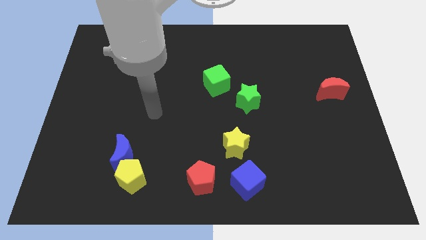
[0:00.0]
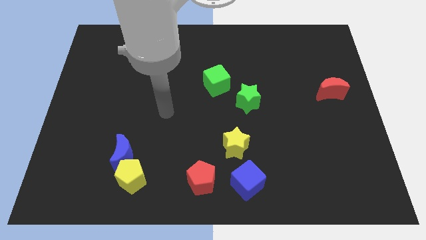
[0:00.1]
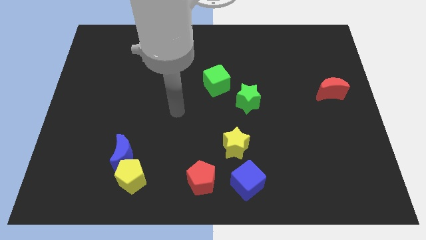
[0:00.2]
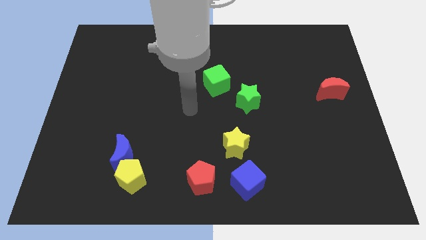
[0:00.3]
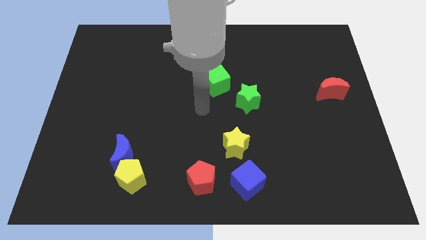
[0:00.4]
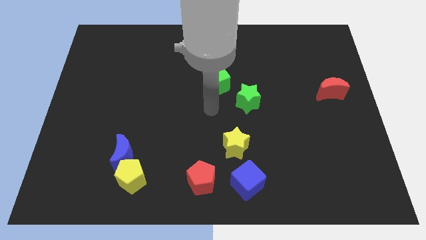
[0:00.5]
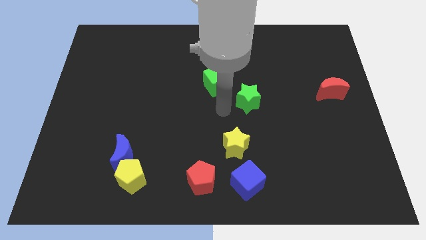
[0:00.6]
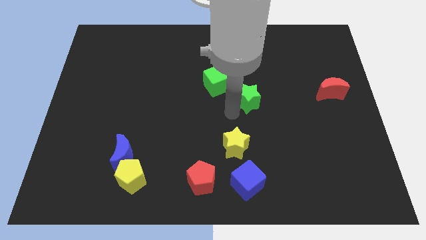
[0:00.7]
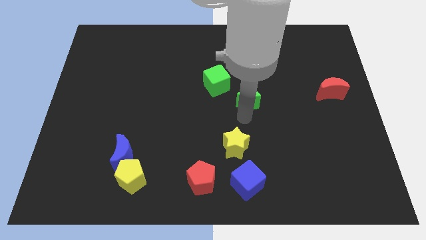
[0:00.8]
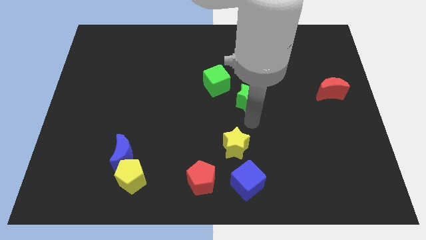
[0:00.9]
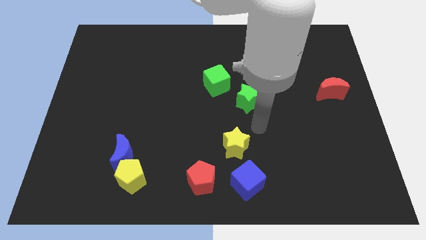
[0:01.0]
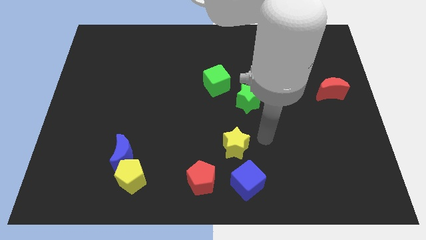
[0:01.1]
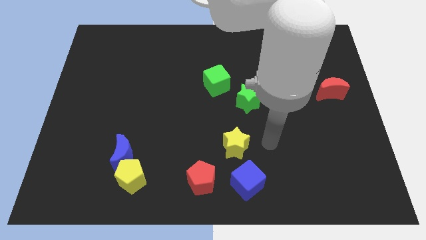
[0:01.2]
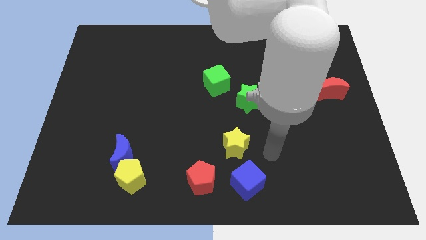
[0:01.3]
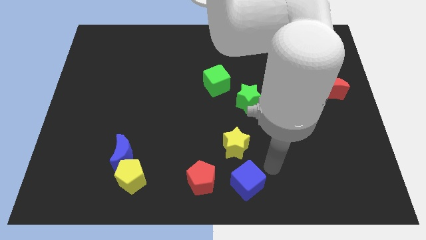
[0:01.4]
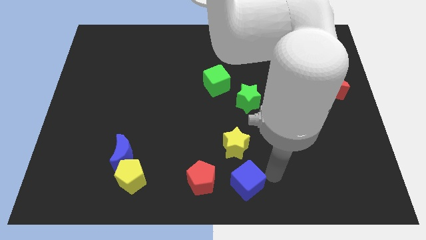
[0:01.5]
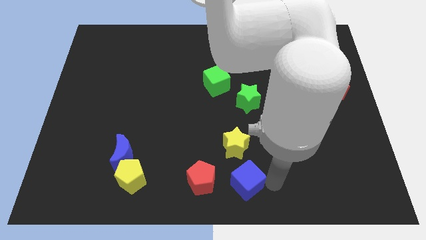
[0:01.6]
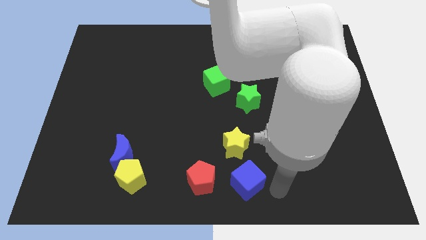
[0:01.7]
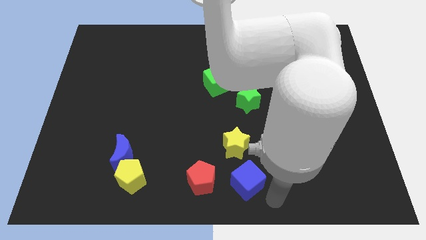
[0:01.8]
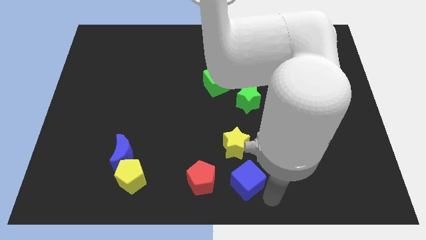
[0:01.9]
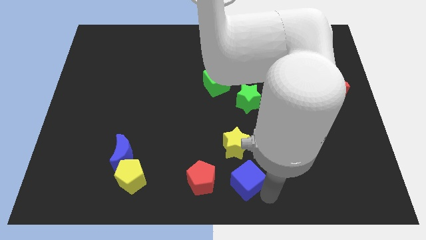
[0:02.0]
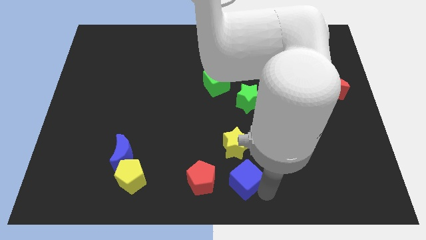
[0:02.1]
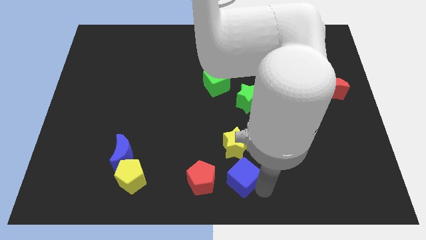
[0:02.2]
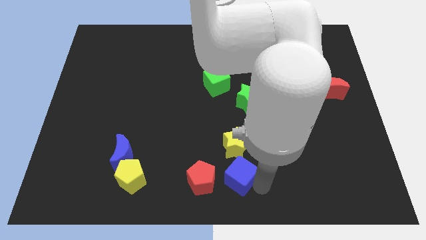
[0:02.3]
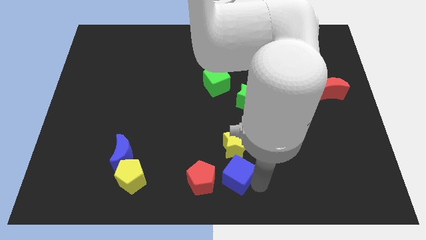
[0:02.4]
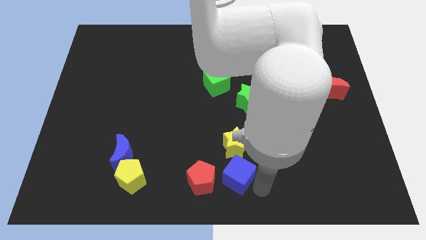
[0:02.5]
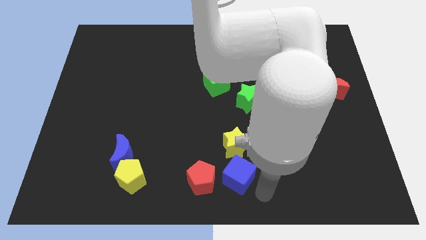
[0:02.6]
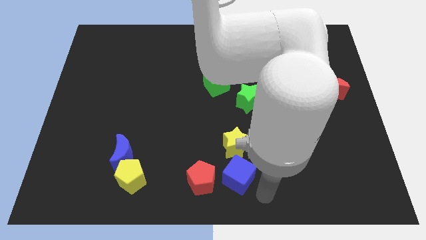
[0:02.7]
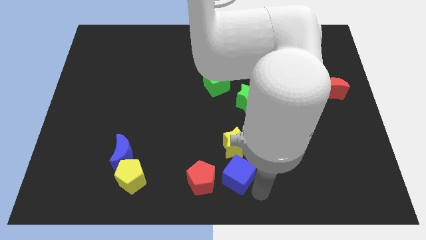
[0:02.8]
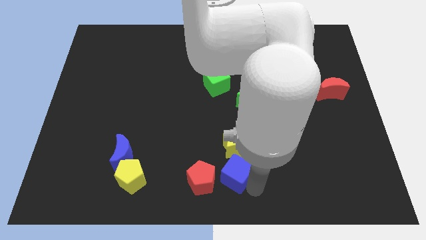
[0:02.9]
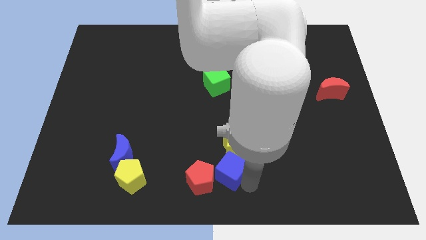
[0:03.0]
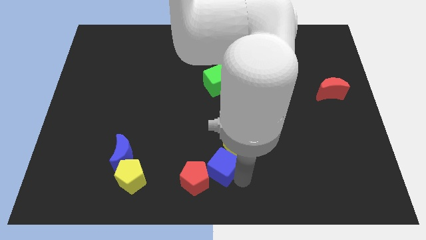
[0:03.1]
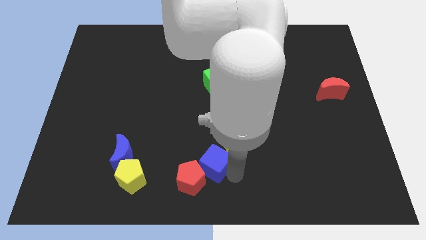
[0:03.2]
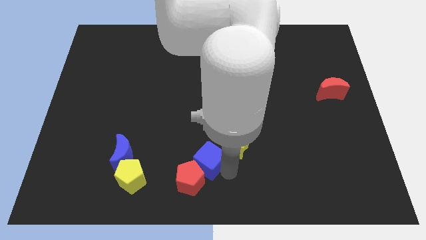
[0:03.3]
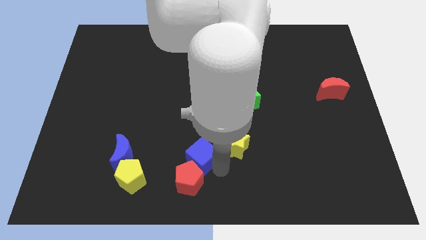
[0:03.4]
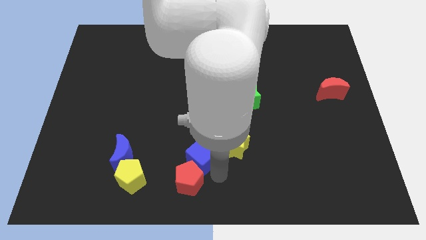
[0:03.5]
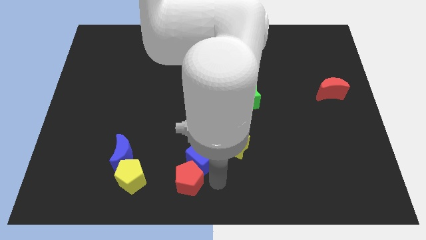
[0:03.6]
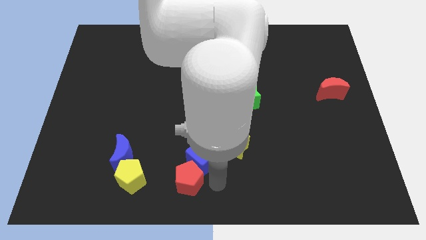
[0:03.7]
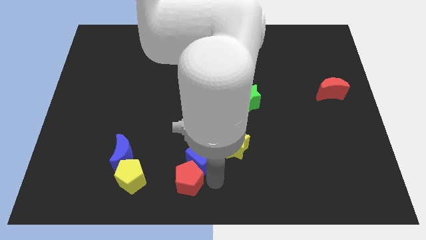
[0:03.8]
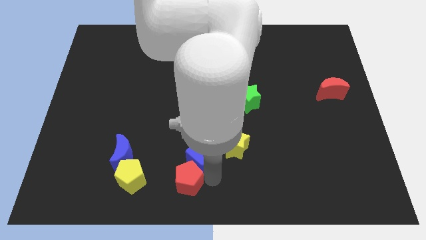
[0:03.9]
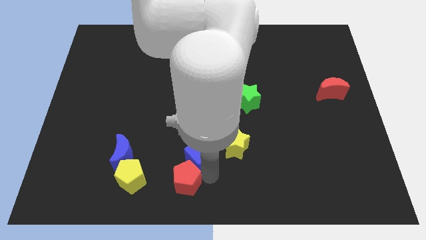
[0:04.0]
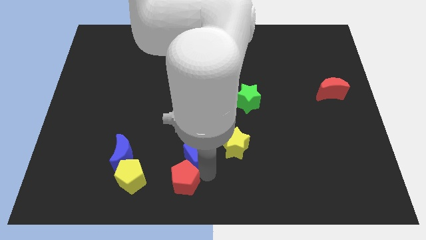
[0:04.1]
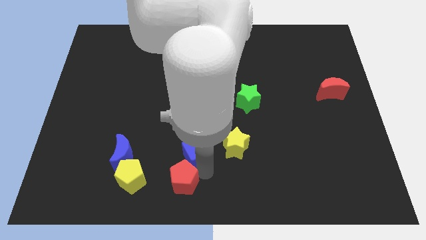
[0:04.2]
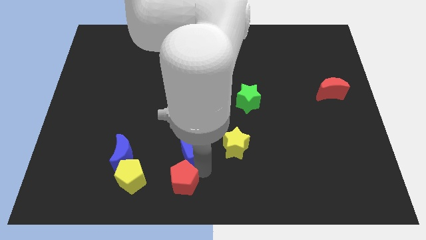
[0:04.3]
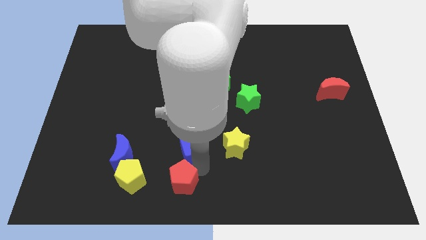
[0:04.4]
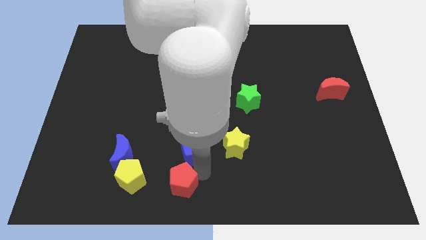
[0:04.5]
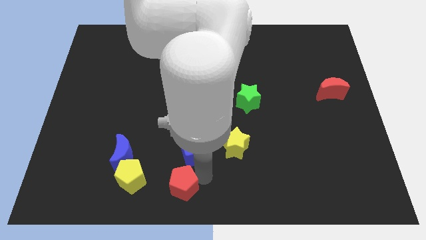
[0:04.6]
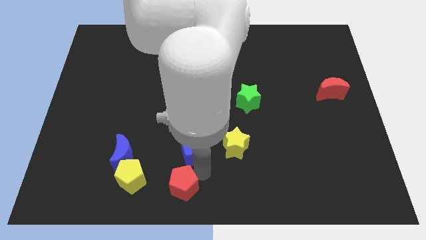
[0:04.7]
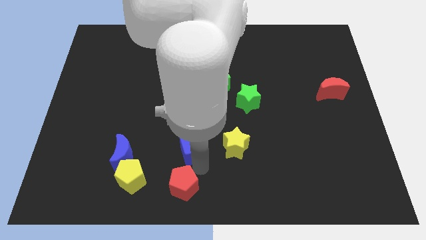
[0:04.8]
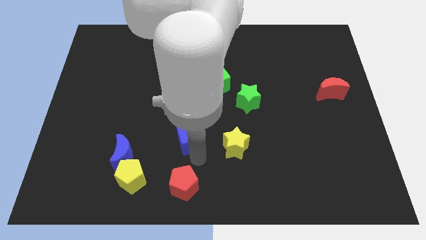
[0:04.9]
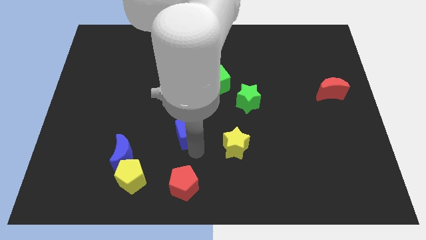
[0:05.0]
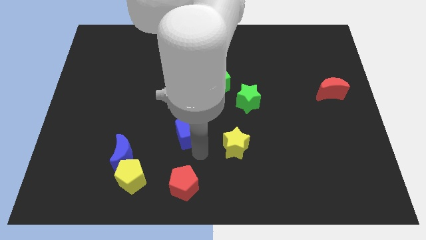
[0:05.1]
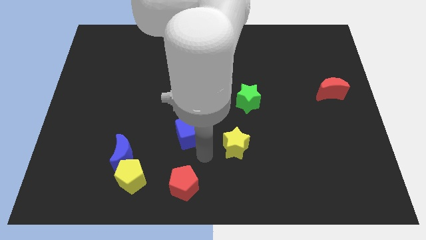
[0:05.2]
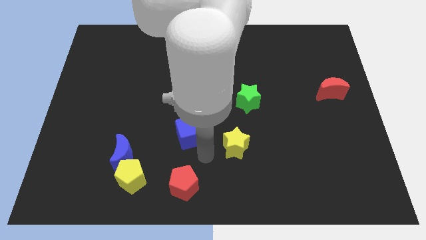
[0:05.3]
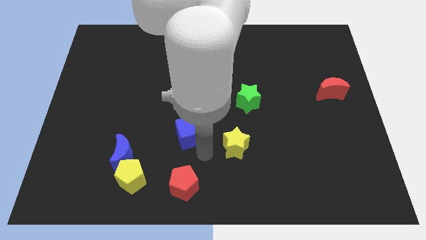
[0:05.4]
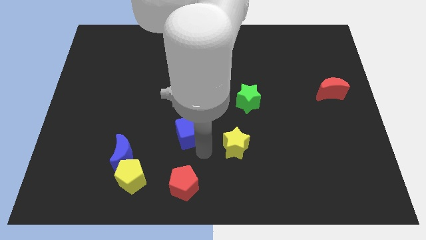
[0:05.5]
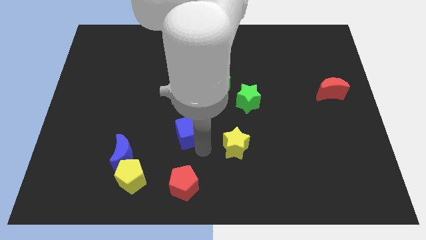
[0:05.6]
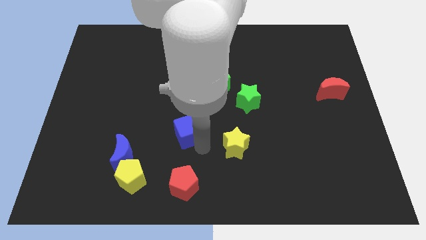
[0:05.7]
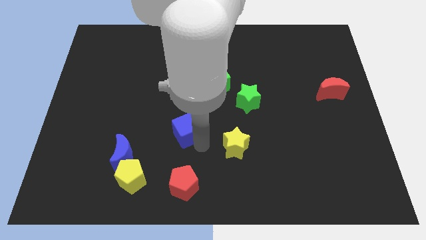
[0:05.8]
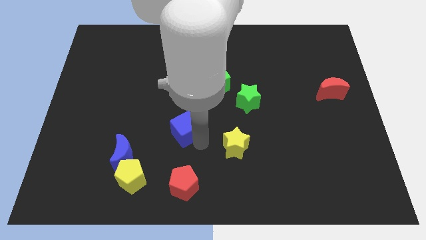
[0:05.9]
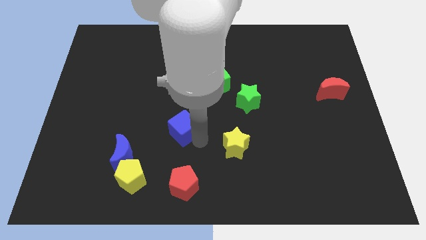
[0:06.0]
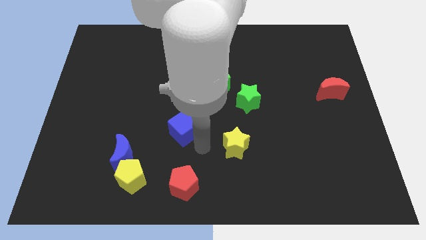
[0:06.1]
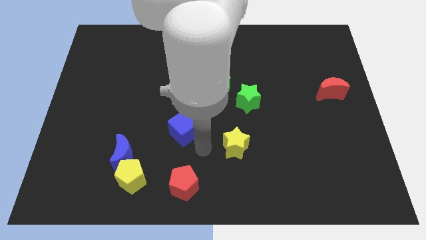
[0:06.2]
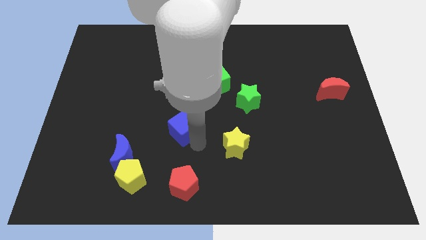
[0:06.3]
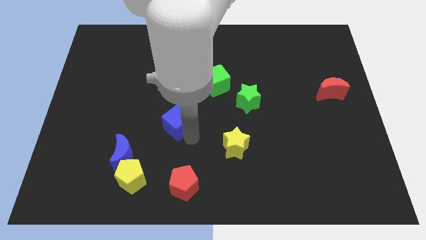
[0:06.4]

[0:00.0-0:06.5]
move the blue cube up and left diagonally

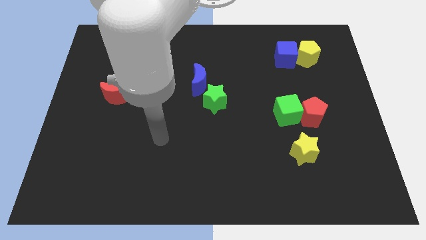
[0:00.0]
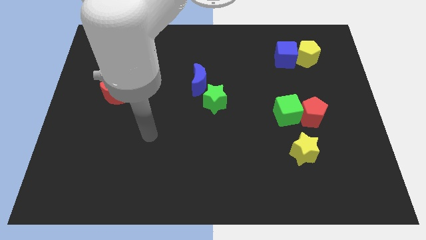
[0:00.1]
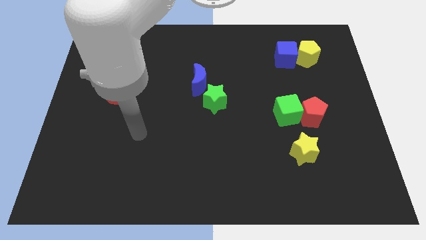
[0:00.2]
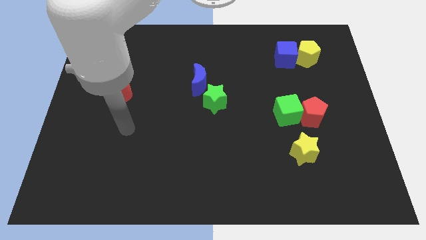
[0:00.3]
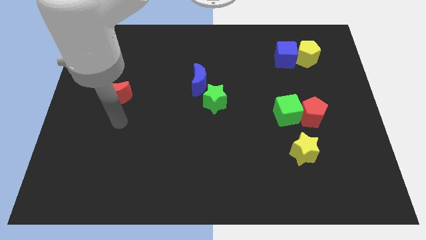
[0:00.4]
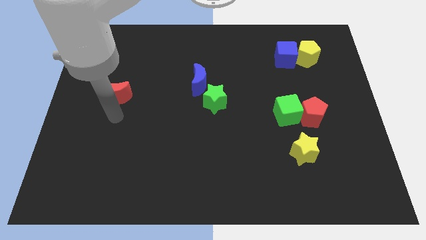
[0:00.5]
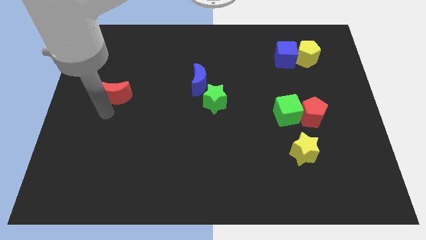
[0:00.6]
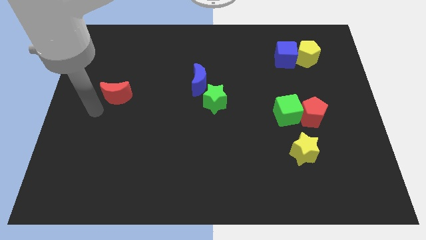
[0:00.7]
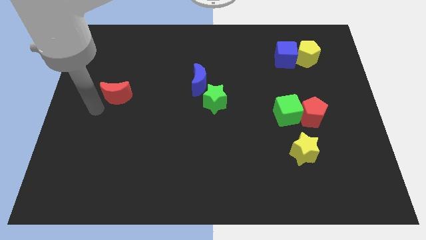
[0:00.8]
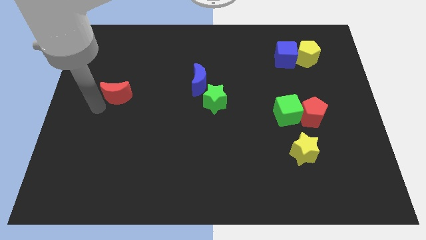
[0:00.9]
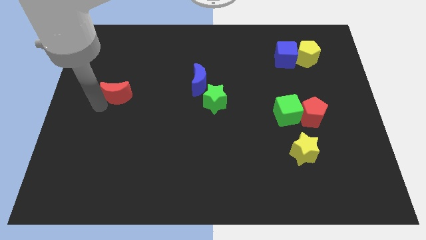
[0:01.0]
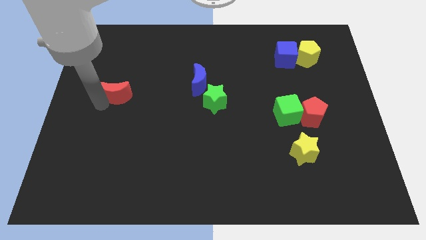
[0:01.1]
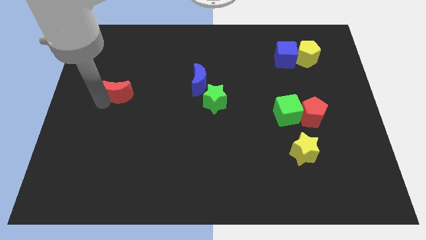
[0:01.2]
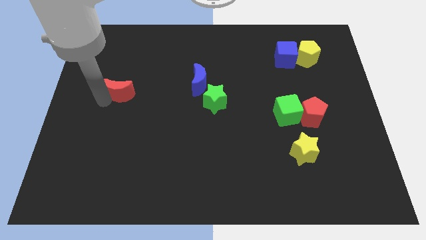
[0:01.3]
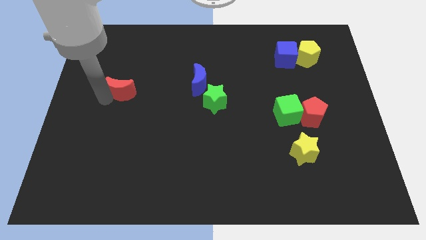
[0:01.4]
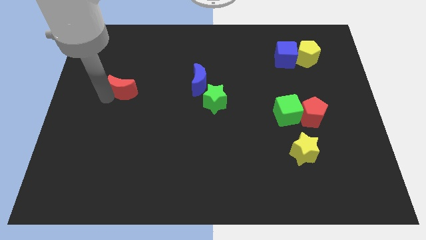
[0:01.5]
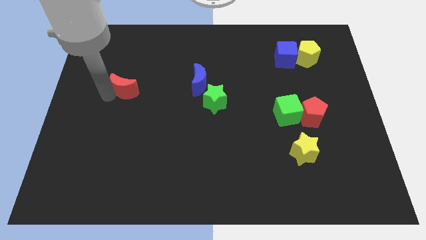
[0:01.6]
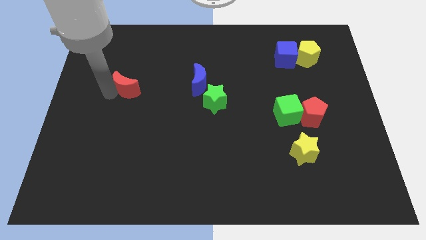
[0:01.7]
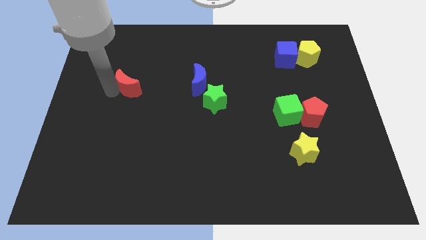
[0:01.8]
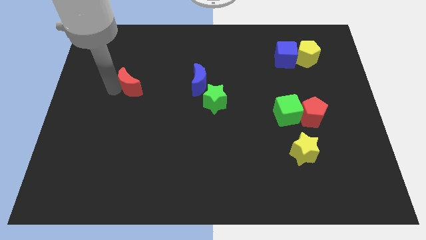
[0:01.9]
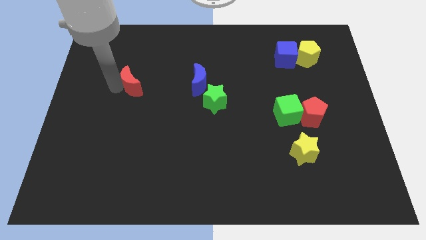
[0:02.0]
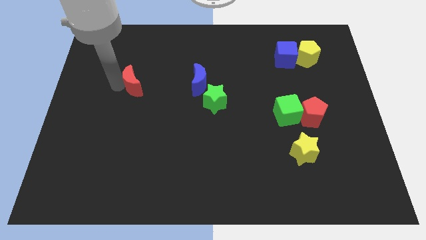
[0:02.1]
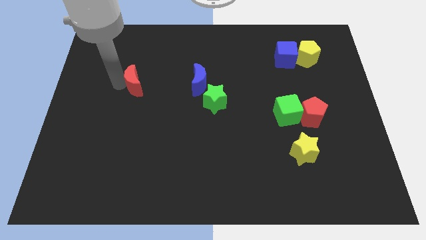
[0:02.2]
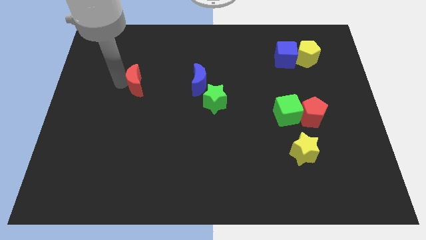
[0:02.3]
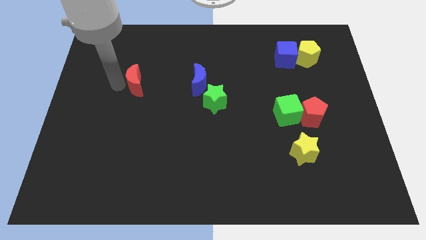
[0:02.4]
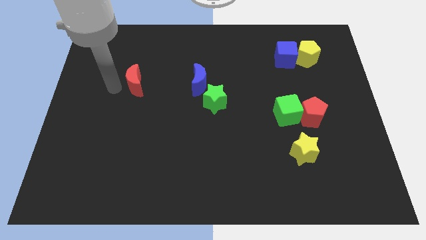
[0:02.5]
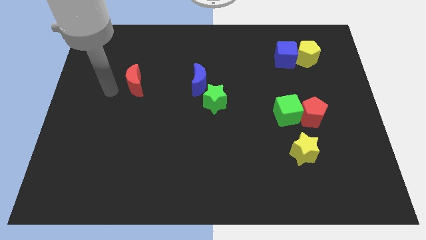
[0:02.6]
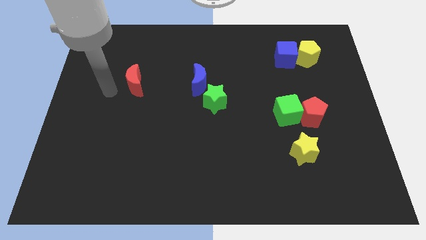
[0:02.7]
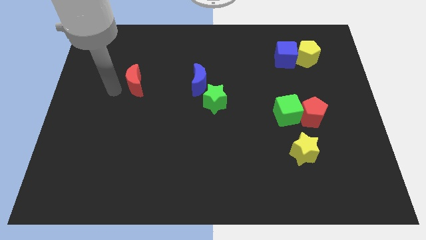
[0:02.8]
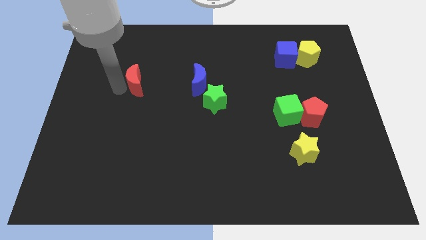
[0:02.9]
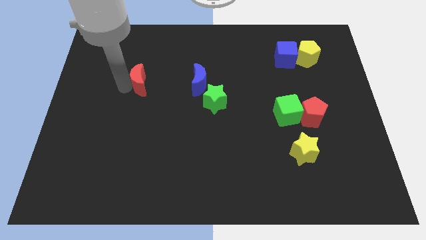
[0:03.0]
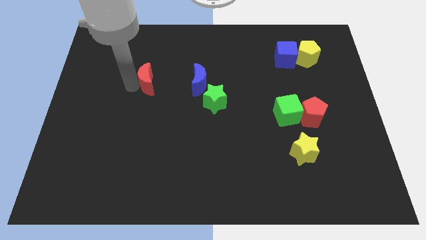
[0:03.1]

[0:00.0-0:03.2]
slide the red moon upwards and then right slightly
